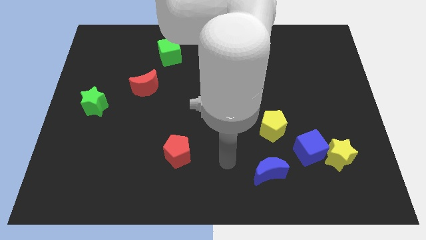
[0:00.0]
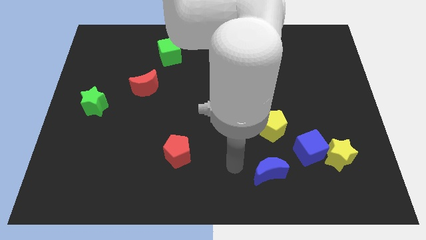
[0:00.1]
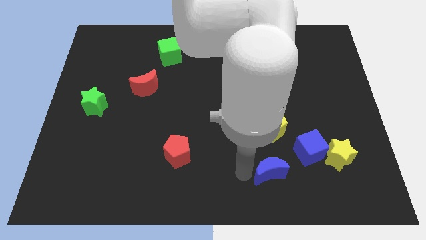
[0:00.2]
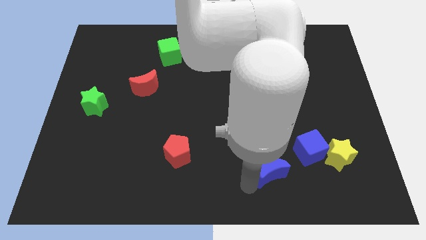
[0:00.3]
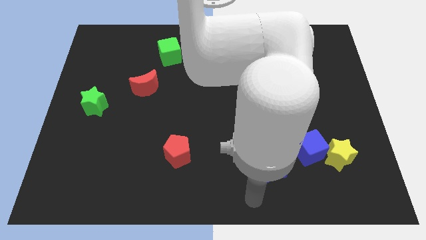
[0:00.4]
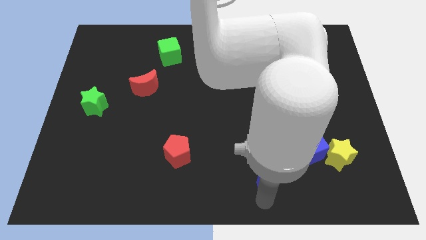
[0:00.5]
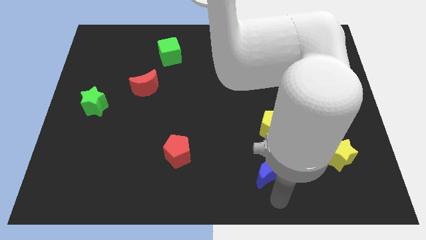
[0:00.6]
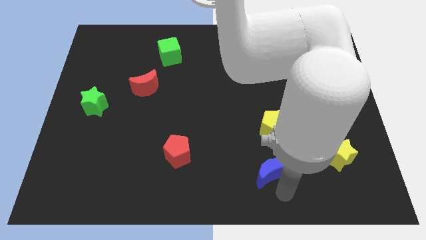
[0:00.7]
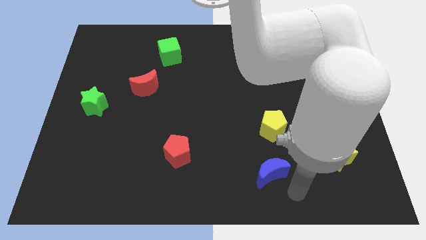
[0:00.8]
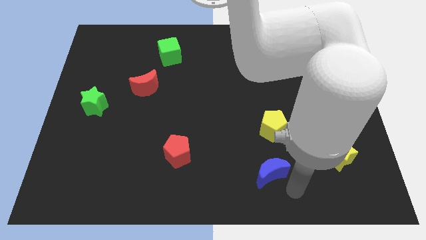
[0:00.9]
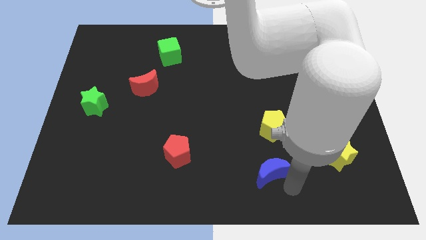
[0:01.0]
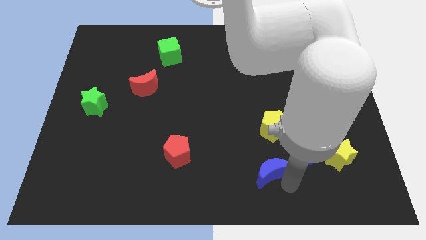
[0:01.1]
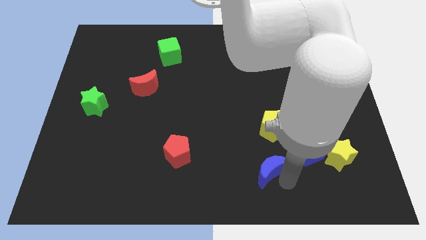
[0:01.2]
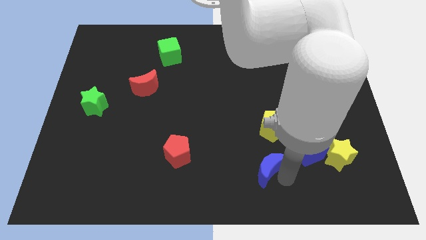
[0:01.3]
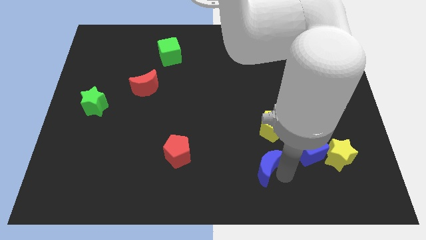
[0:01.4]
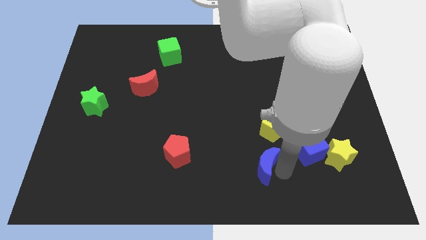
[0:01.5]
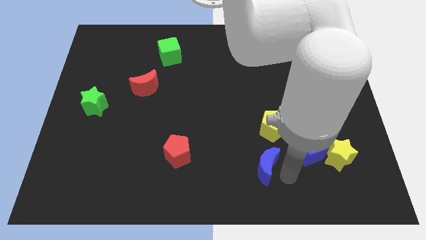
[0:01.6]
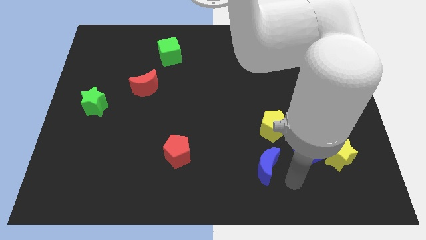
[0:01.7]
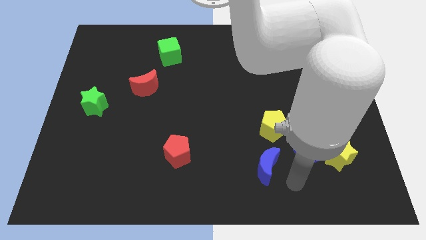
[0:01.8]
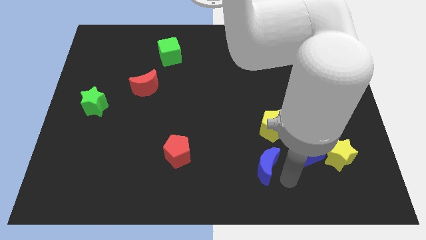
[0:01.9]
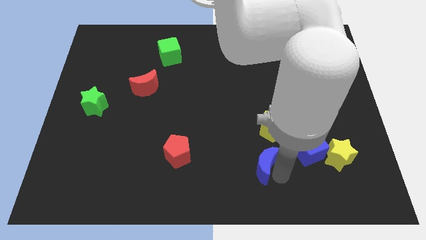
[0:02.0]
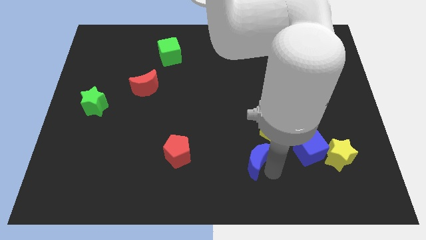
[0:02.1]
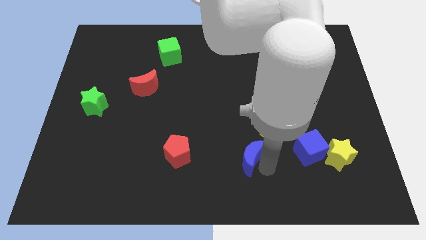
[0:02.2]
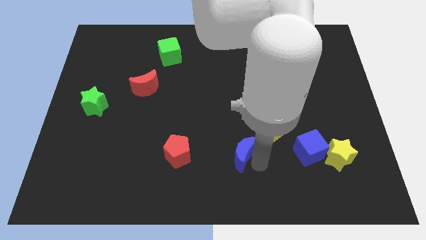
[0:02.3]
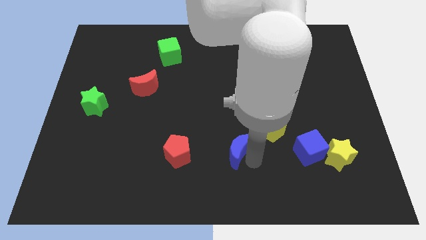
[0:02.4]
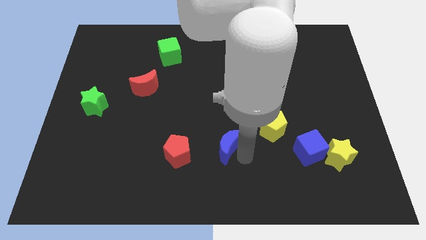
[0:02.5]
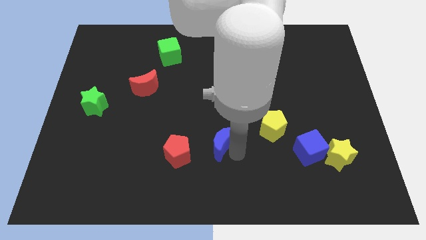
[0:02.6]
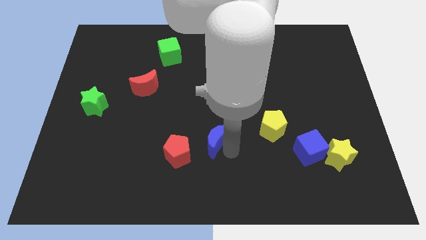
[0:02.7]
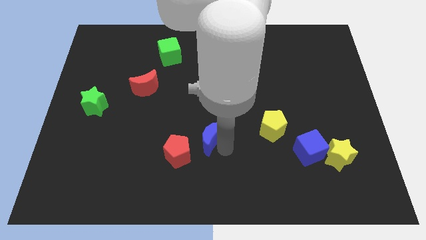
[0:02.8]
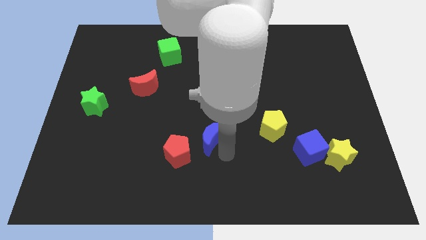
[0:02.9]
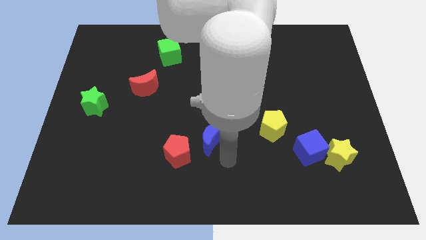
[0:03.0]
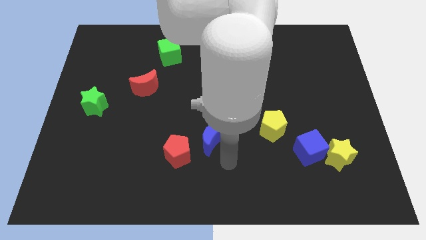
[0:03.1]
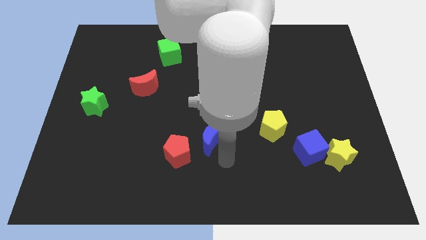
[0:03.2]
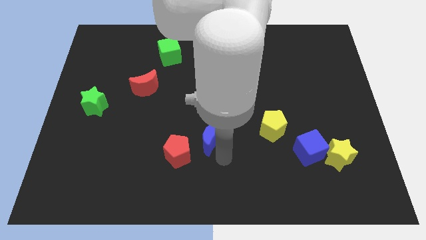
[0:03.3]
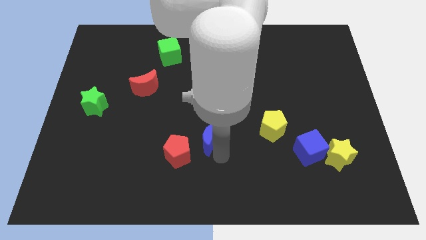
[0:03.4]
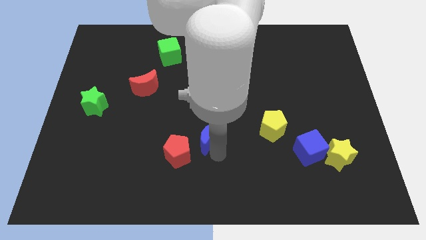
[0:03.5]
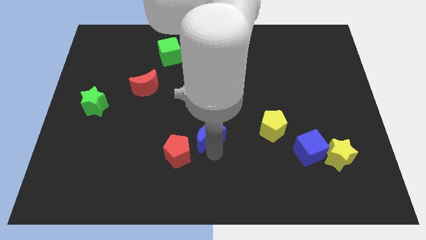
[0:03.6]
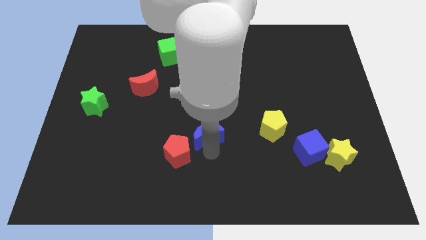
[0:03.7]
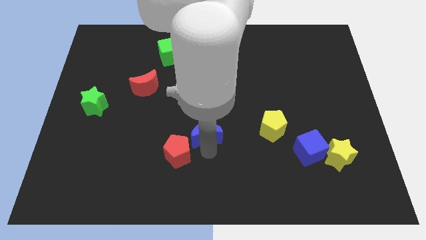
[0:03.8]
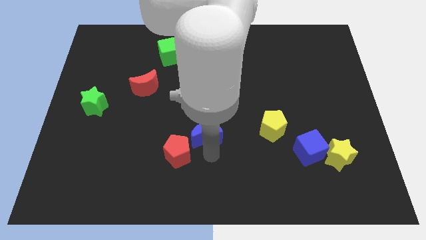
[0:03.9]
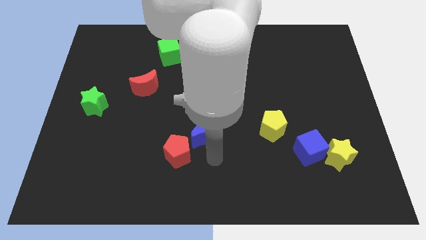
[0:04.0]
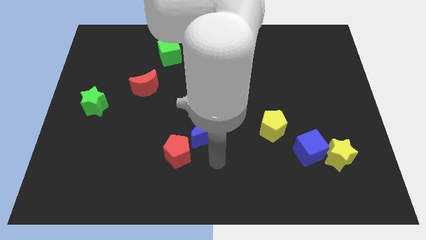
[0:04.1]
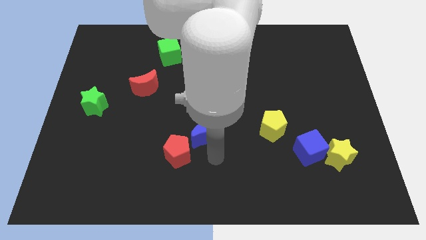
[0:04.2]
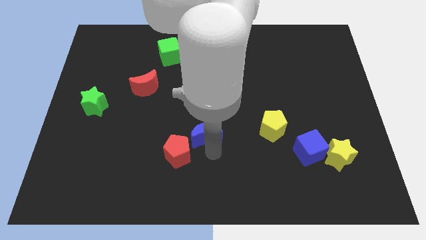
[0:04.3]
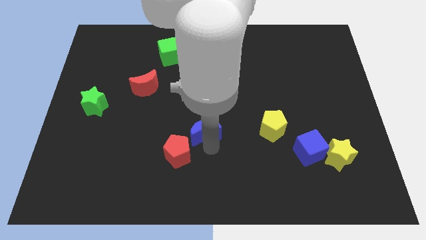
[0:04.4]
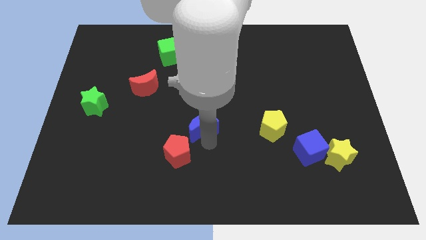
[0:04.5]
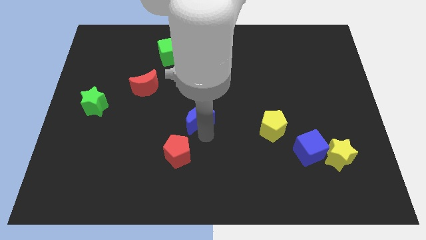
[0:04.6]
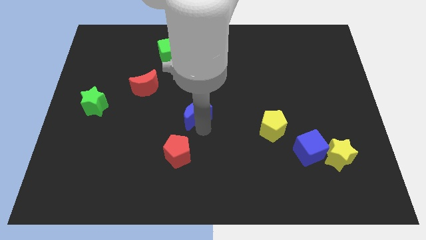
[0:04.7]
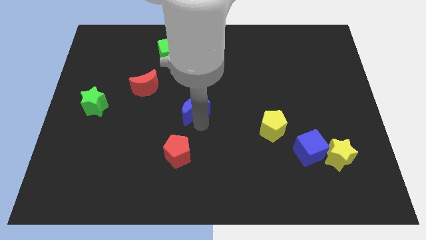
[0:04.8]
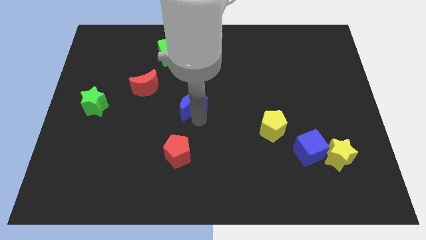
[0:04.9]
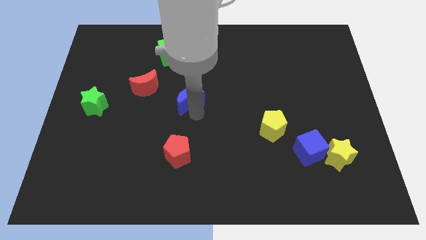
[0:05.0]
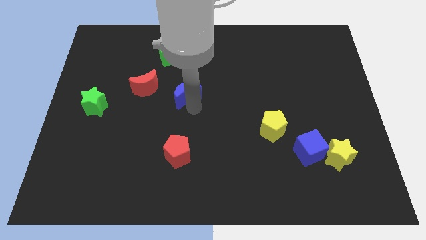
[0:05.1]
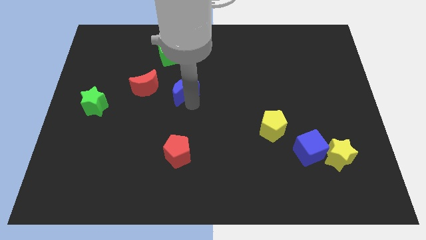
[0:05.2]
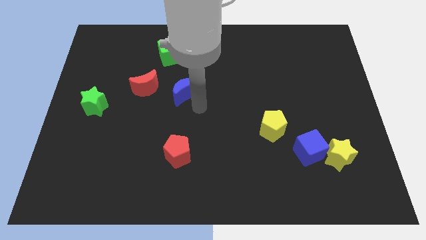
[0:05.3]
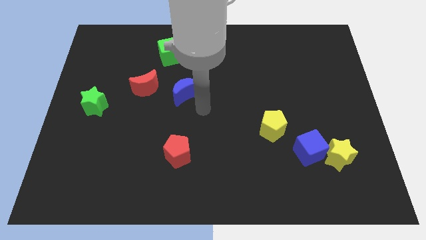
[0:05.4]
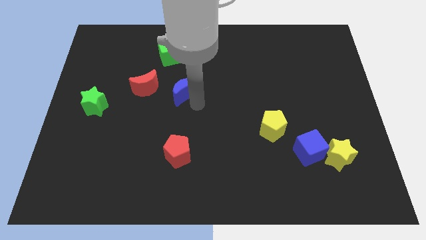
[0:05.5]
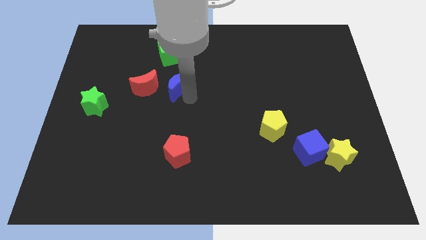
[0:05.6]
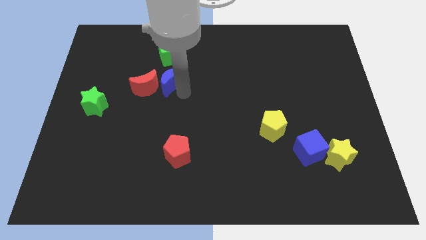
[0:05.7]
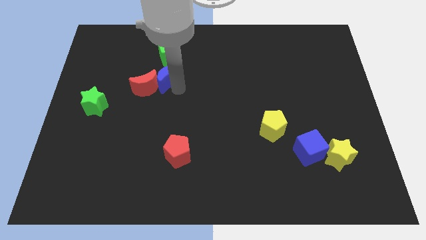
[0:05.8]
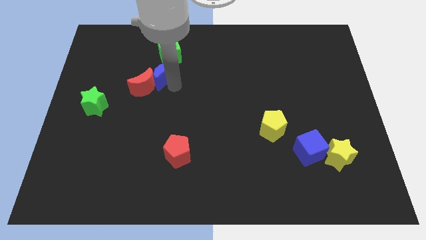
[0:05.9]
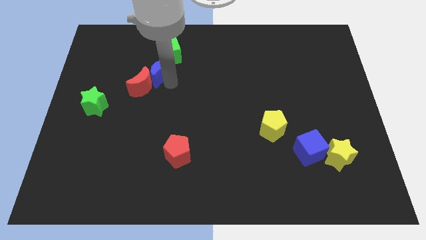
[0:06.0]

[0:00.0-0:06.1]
push the blue moon to the top side of the red moon
